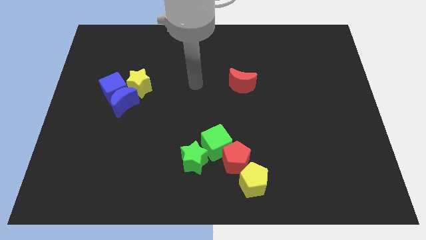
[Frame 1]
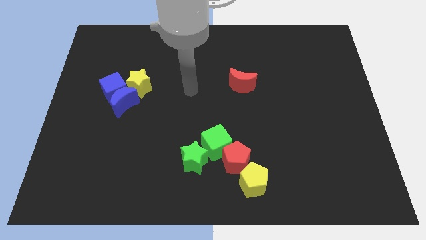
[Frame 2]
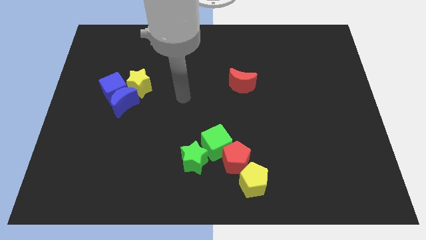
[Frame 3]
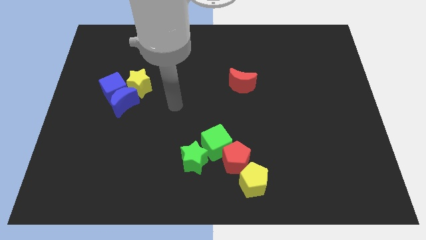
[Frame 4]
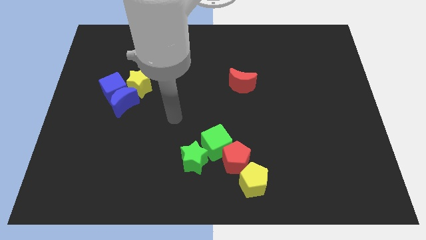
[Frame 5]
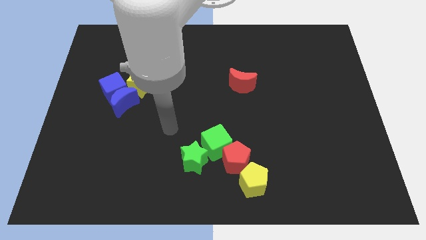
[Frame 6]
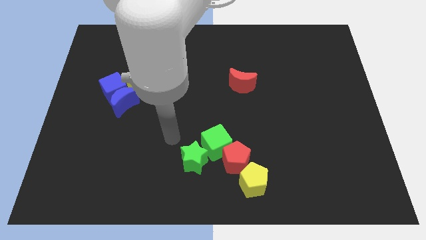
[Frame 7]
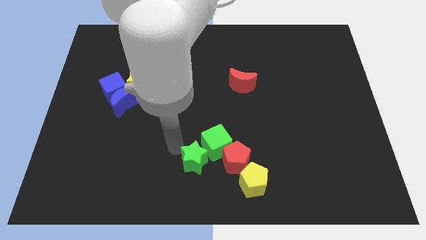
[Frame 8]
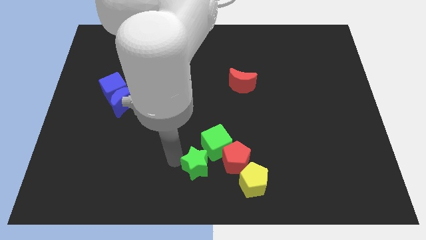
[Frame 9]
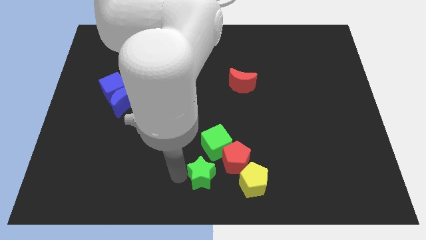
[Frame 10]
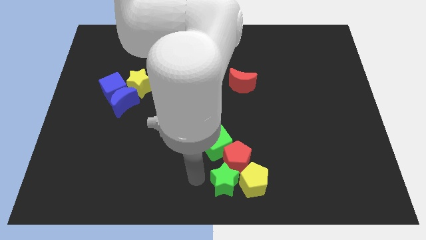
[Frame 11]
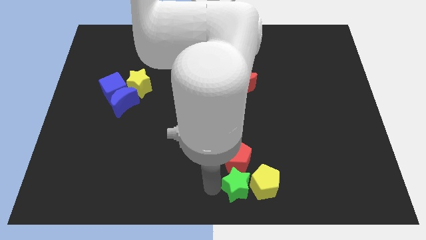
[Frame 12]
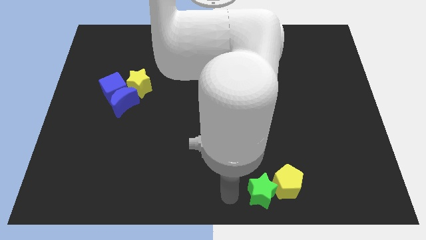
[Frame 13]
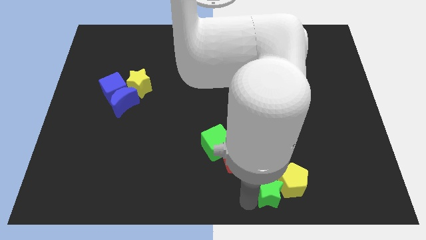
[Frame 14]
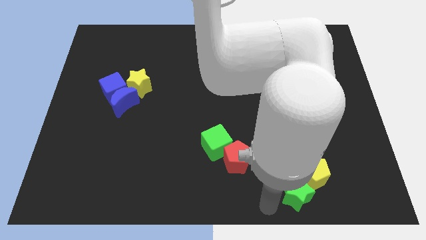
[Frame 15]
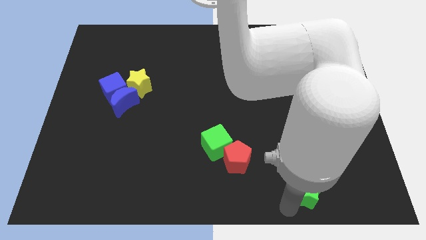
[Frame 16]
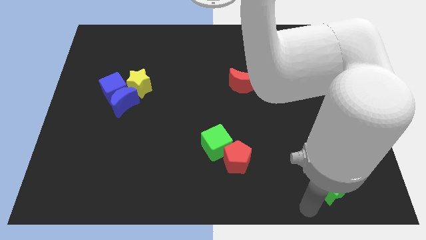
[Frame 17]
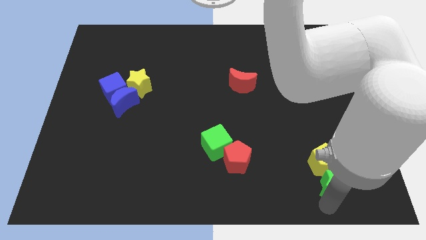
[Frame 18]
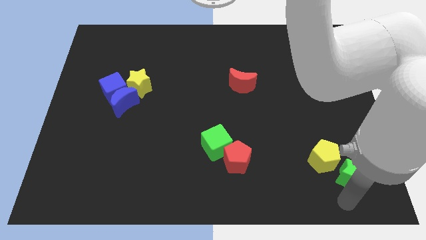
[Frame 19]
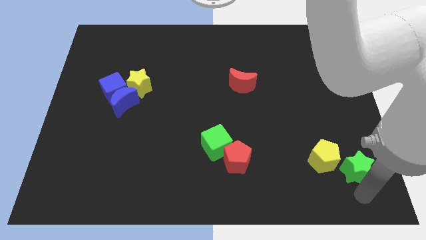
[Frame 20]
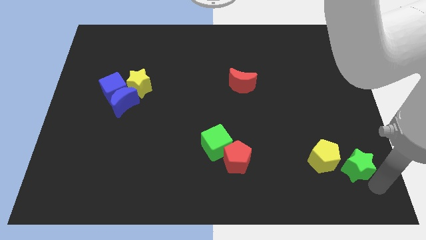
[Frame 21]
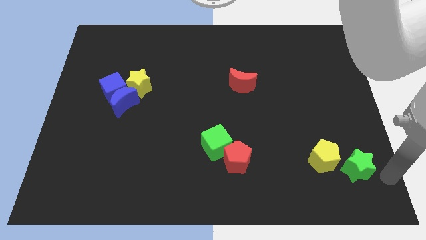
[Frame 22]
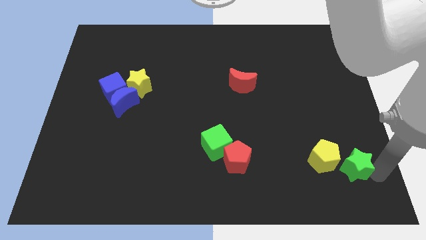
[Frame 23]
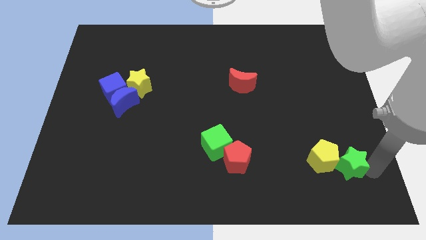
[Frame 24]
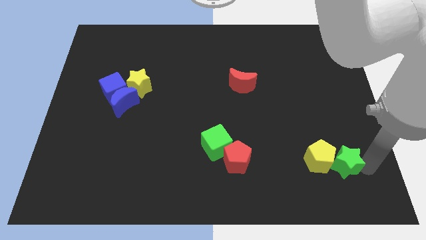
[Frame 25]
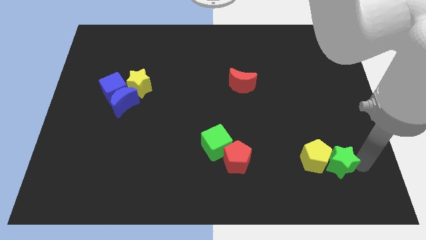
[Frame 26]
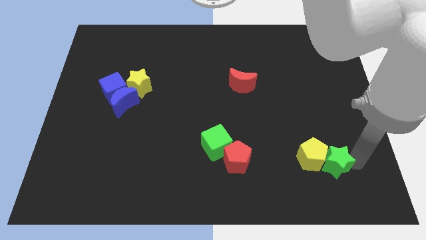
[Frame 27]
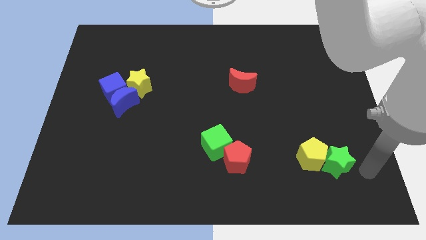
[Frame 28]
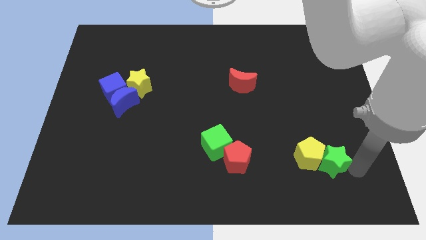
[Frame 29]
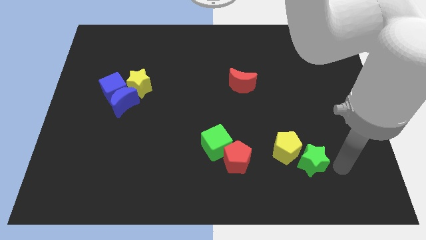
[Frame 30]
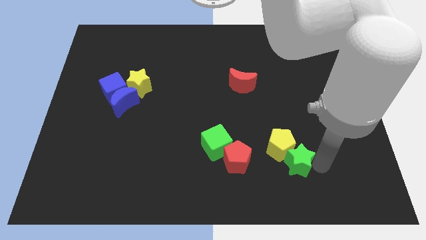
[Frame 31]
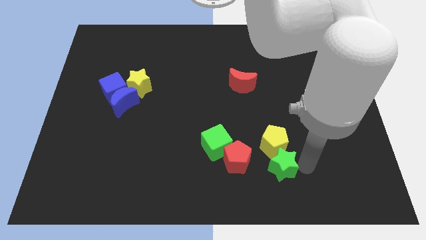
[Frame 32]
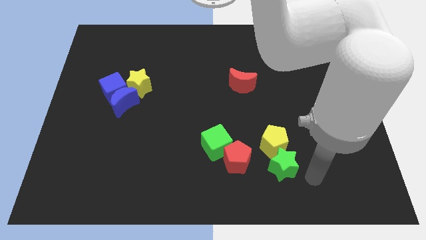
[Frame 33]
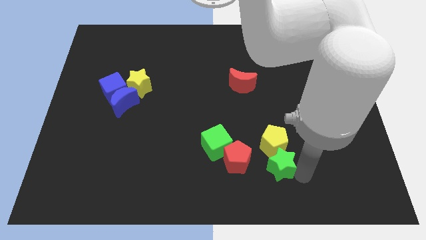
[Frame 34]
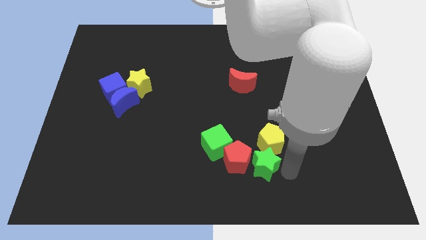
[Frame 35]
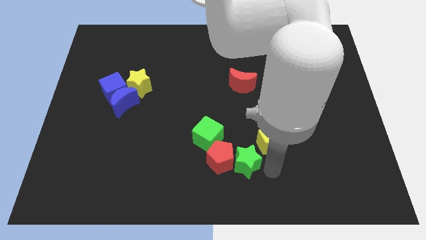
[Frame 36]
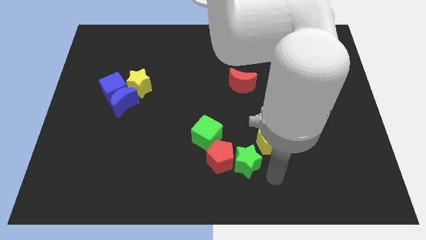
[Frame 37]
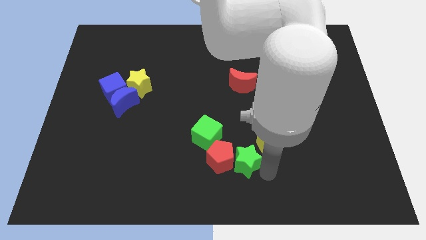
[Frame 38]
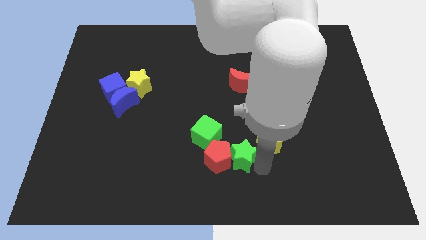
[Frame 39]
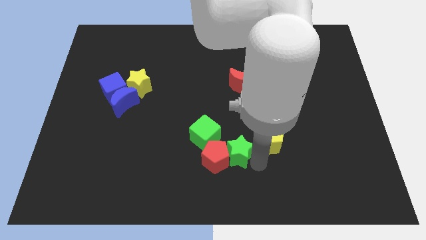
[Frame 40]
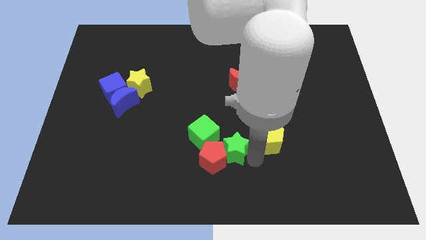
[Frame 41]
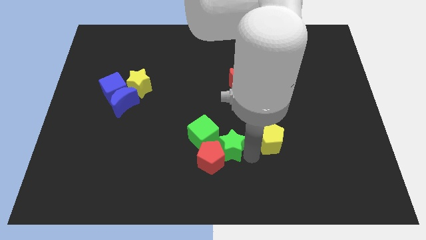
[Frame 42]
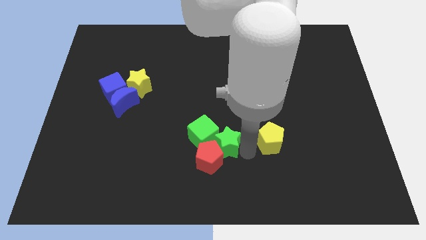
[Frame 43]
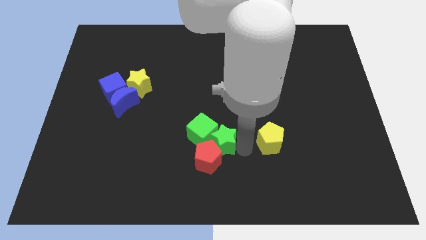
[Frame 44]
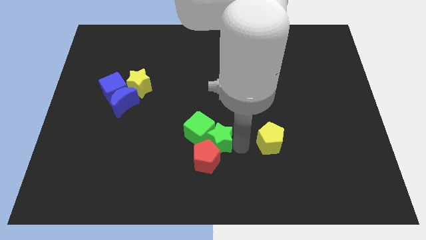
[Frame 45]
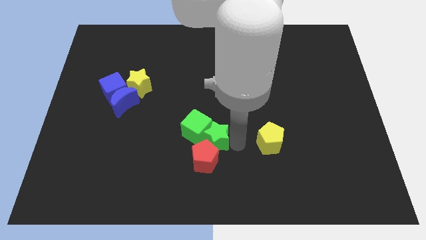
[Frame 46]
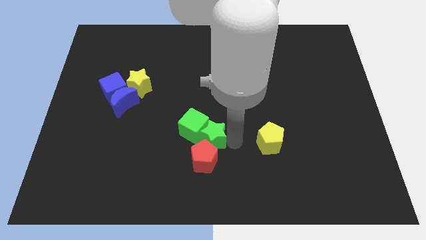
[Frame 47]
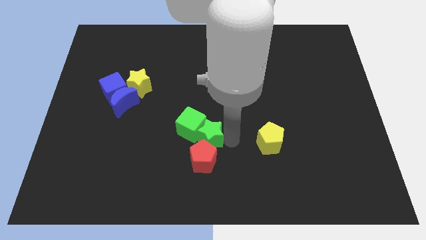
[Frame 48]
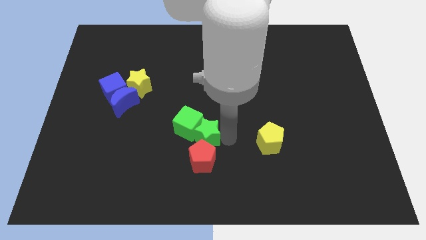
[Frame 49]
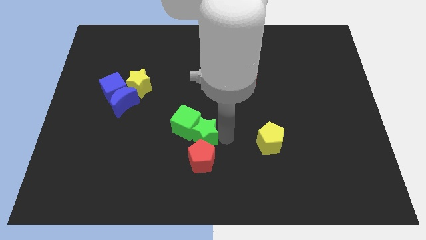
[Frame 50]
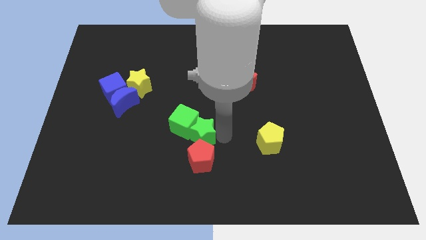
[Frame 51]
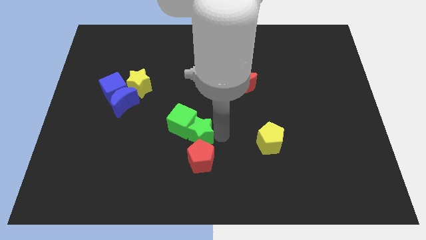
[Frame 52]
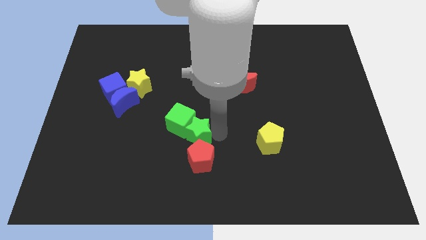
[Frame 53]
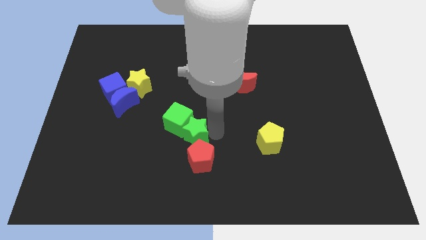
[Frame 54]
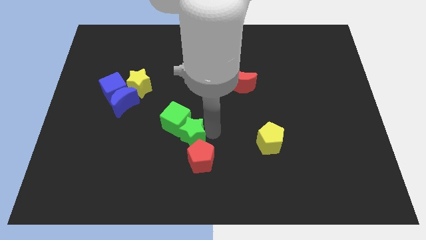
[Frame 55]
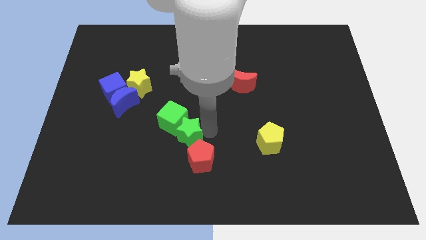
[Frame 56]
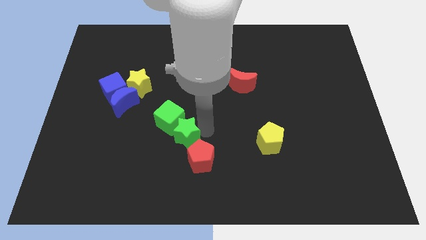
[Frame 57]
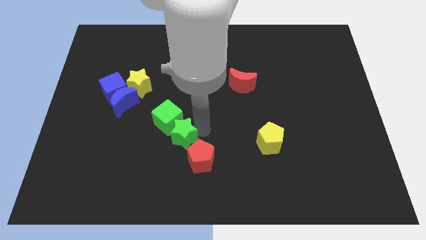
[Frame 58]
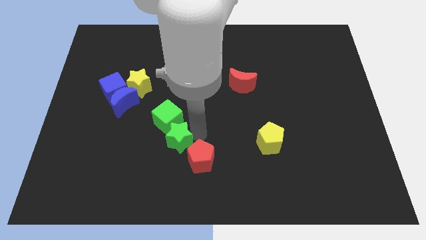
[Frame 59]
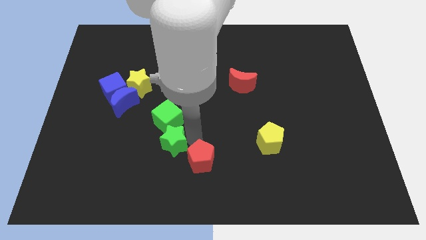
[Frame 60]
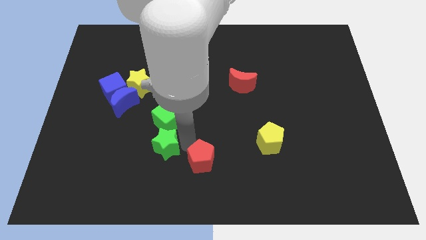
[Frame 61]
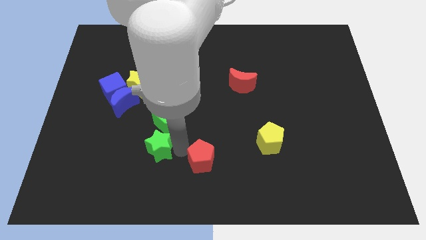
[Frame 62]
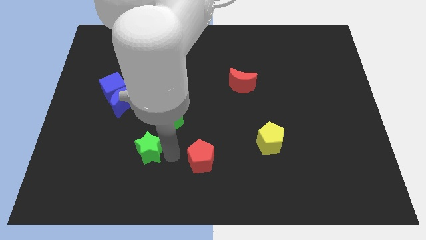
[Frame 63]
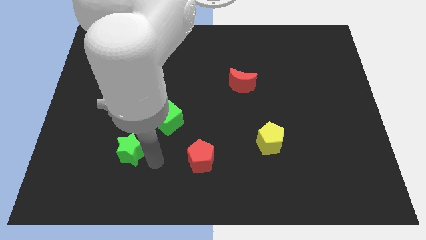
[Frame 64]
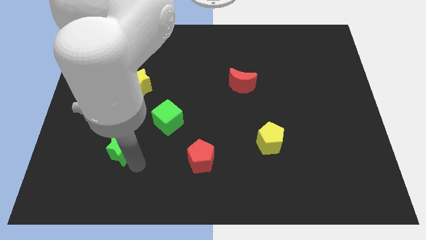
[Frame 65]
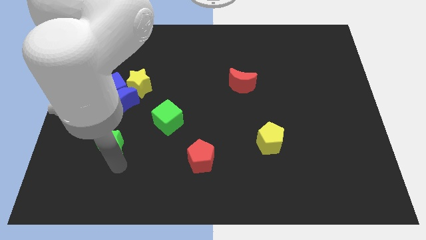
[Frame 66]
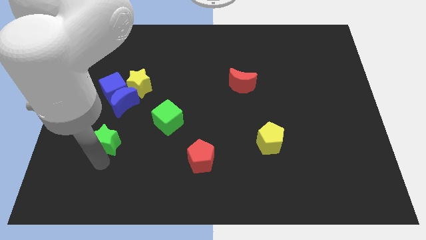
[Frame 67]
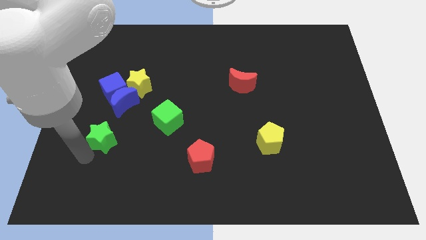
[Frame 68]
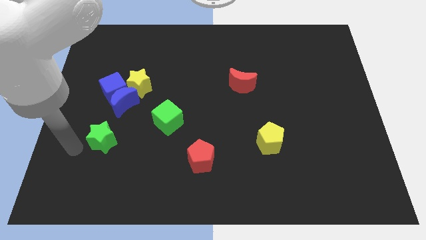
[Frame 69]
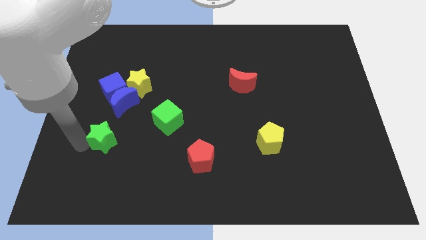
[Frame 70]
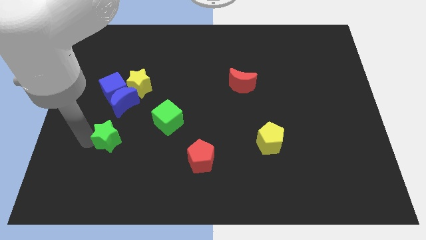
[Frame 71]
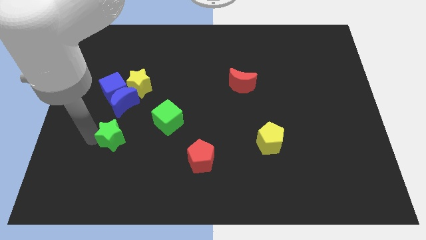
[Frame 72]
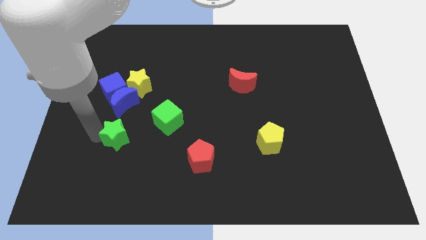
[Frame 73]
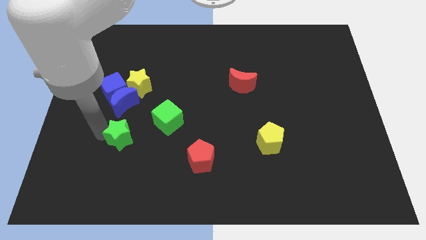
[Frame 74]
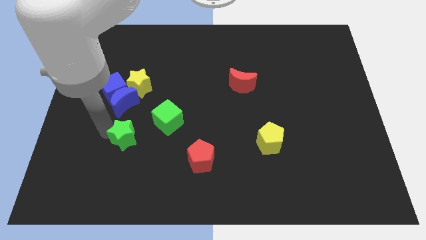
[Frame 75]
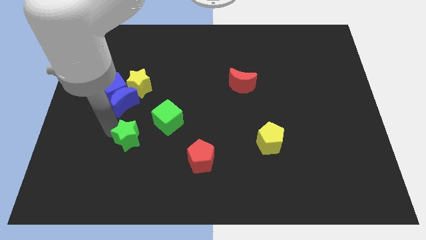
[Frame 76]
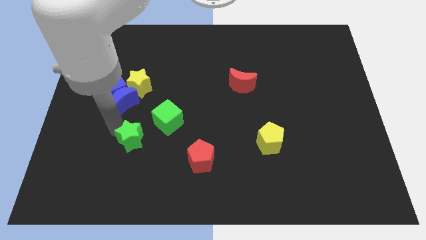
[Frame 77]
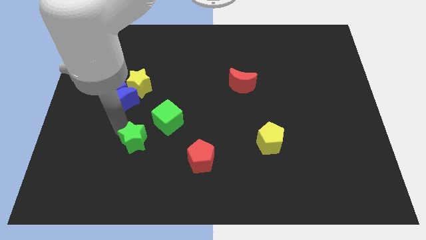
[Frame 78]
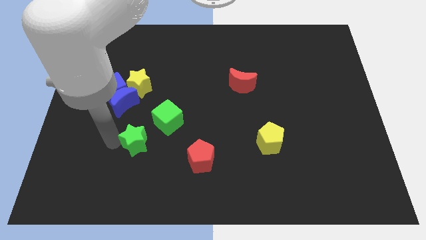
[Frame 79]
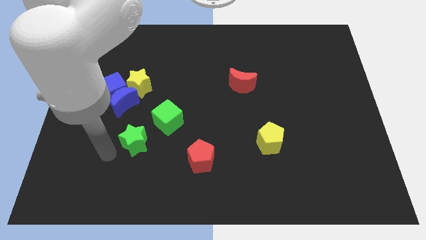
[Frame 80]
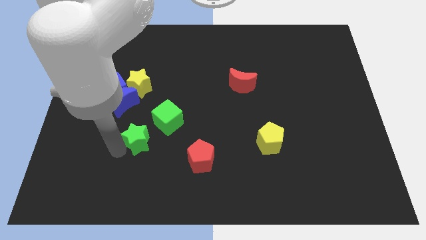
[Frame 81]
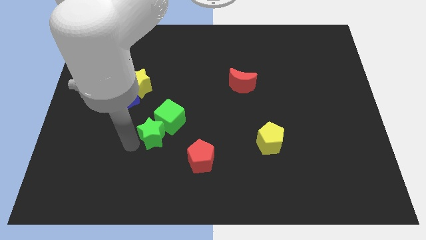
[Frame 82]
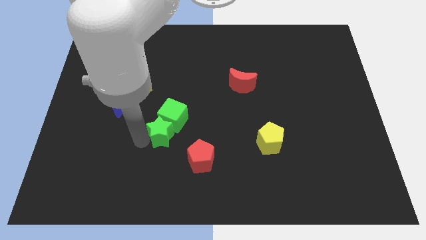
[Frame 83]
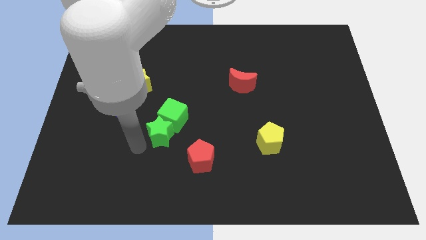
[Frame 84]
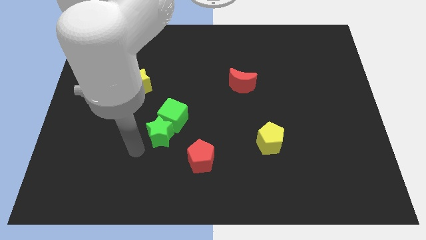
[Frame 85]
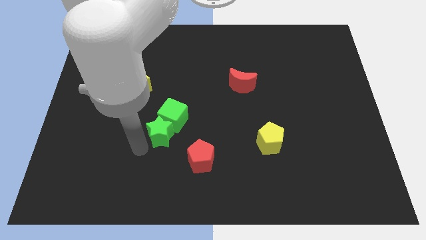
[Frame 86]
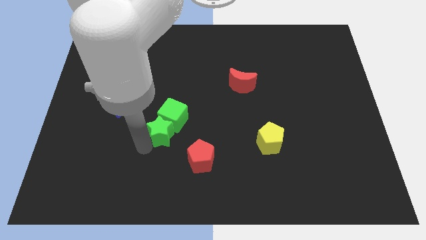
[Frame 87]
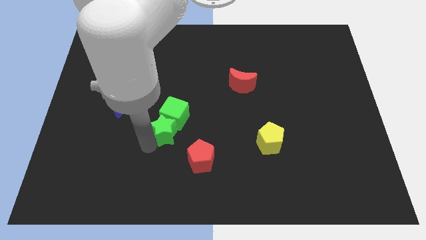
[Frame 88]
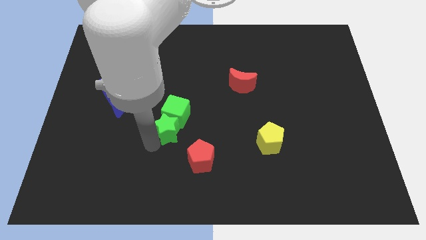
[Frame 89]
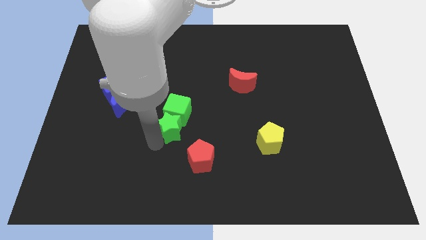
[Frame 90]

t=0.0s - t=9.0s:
move the green star a little upwards
